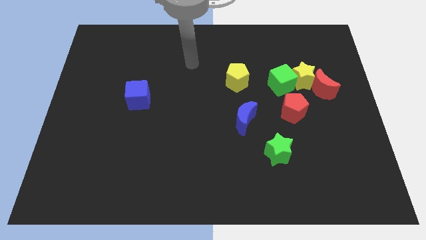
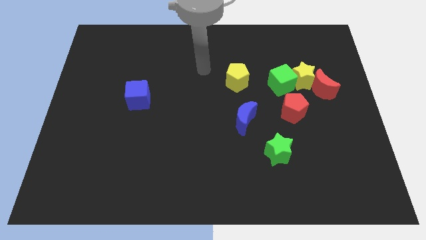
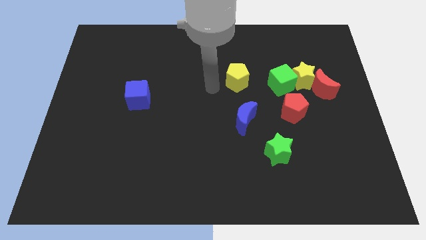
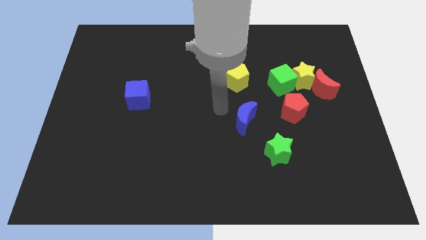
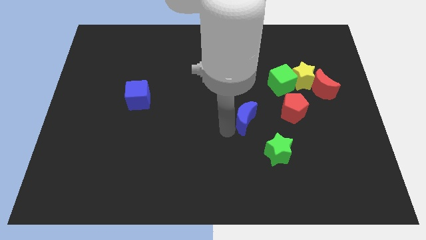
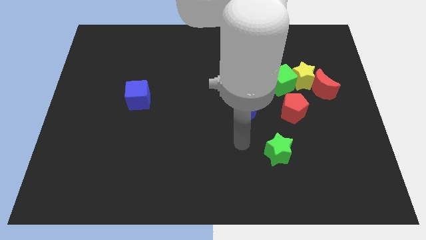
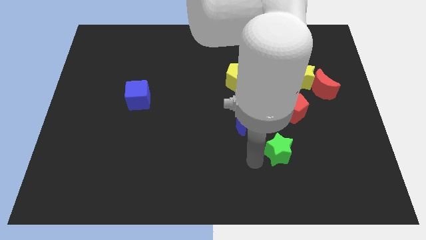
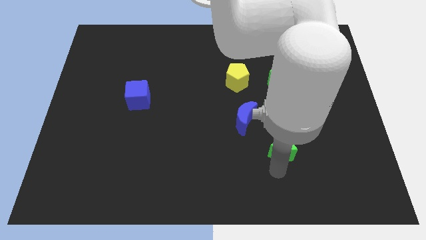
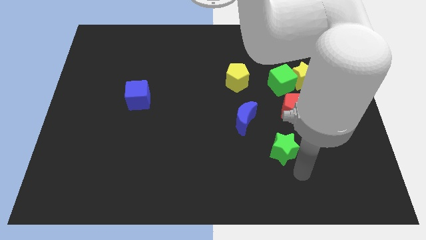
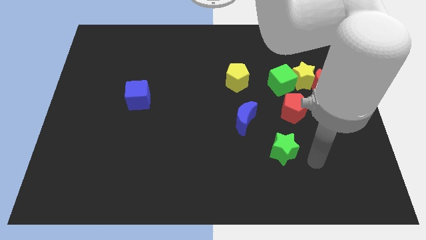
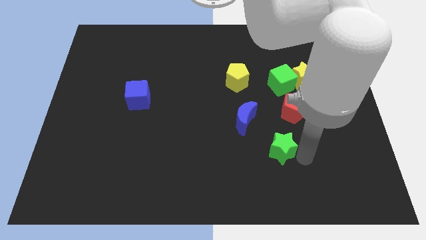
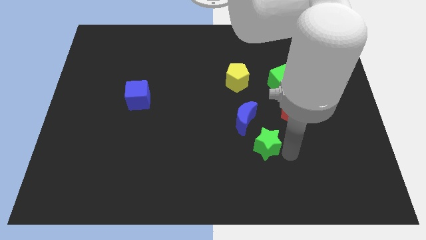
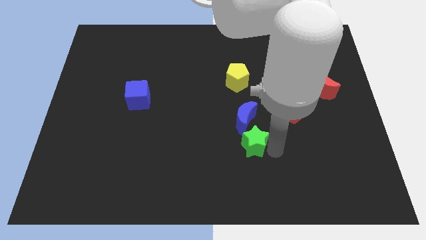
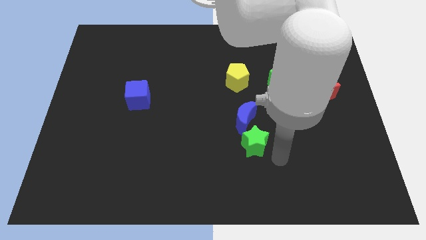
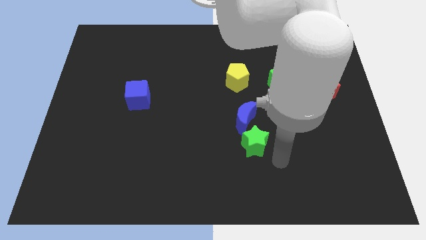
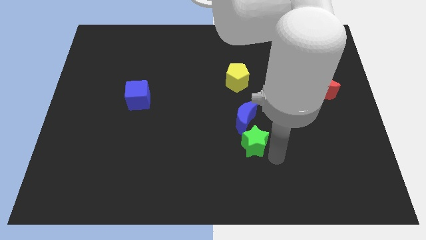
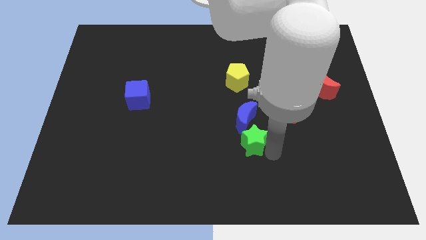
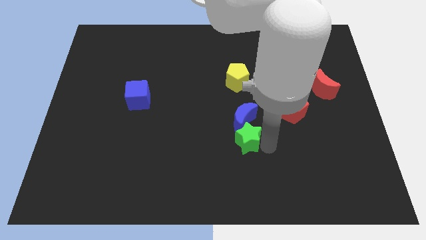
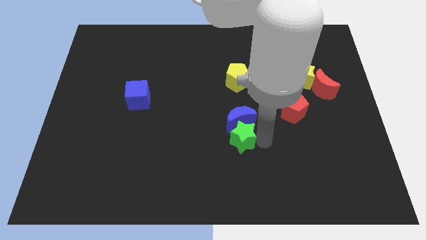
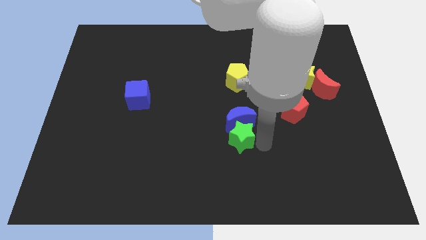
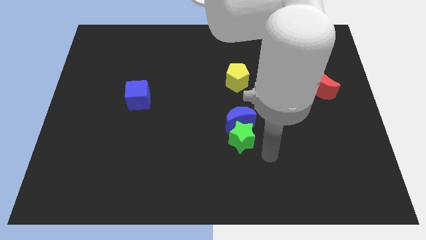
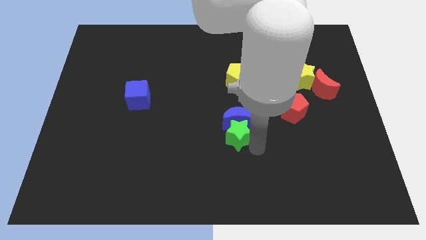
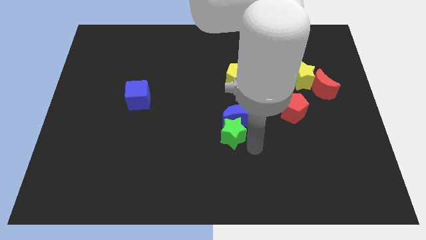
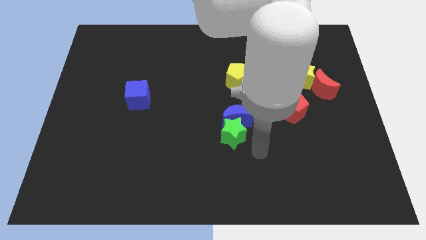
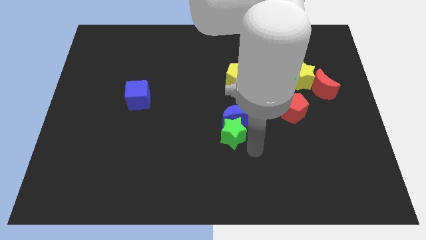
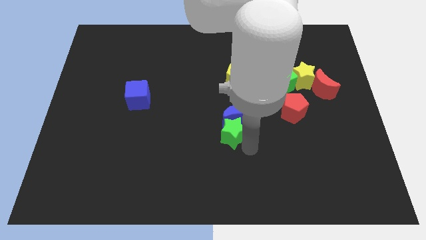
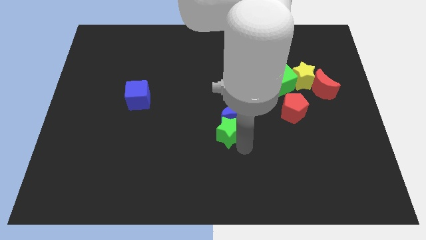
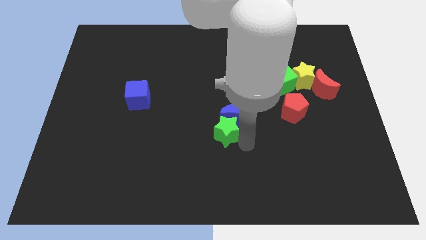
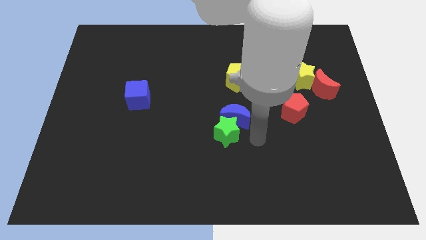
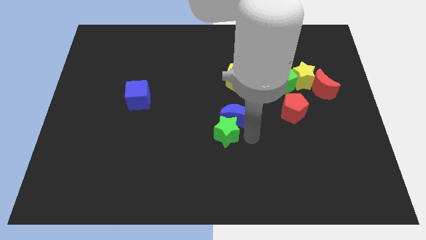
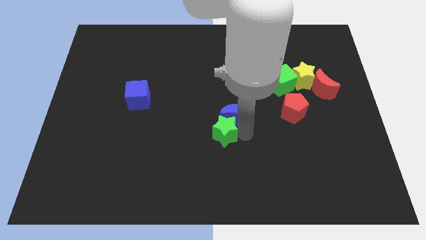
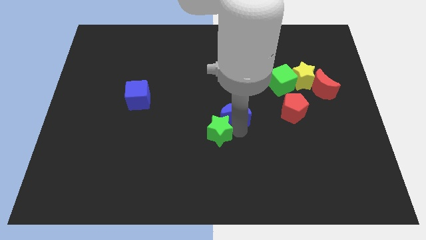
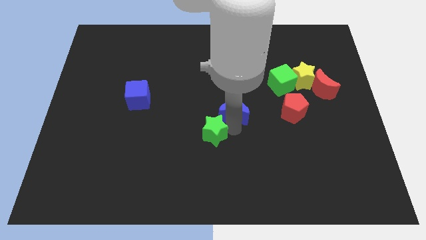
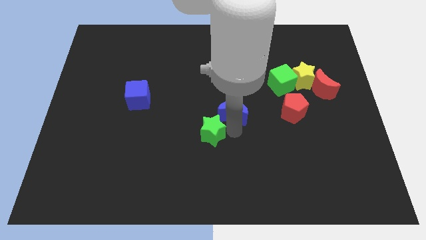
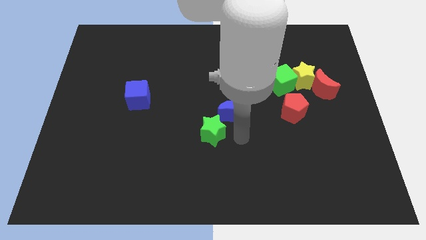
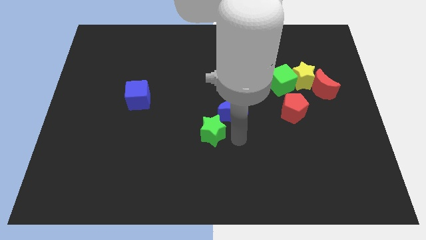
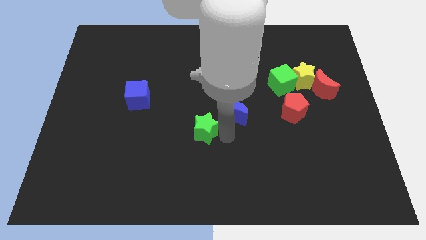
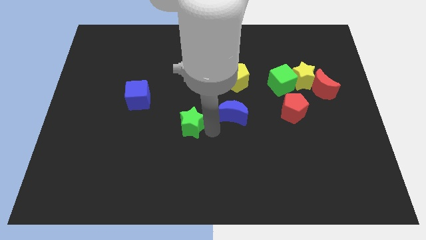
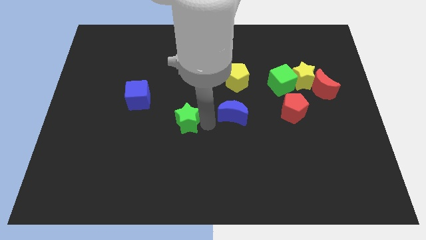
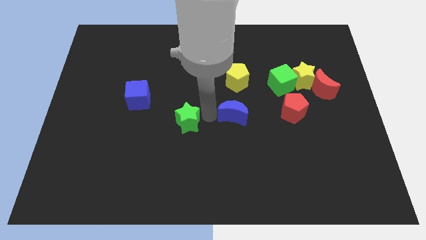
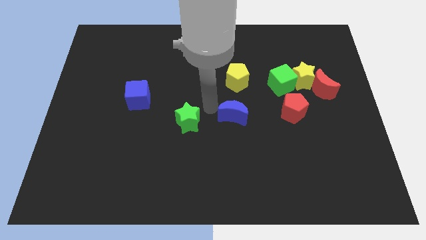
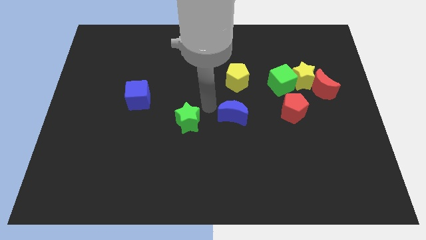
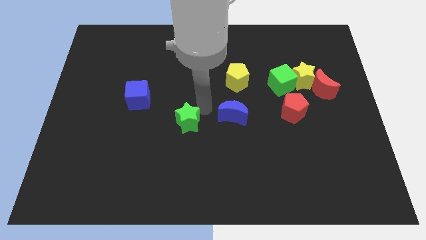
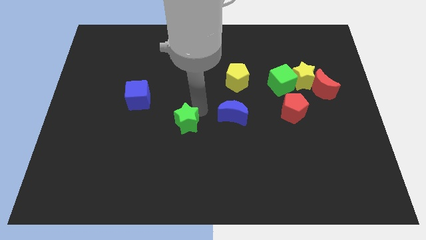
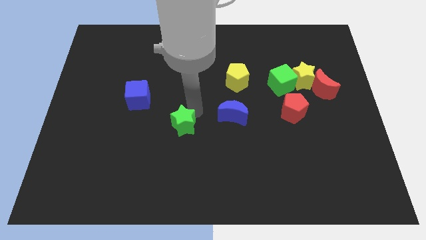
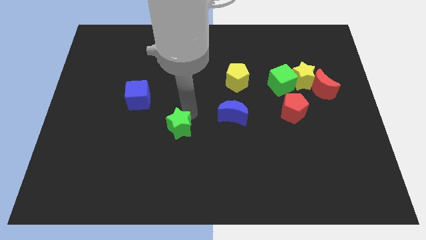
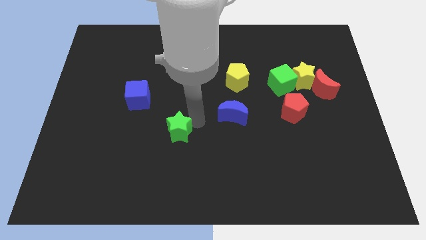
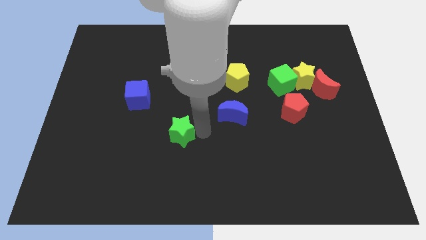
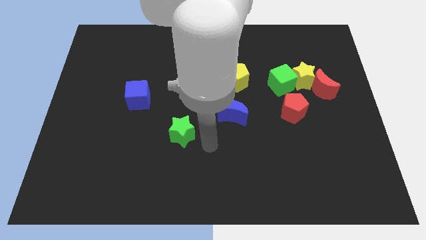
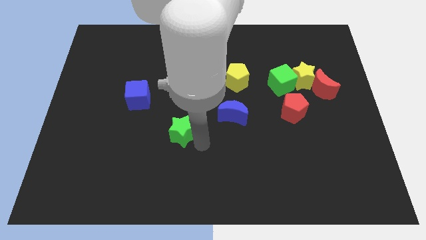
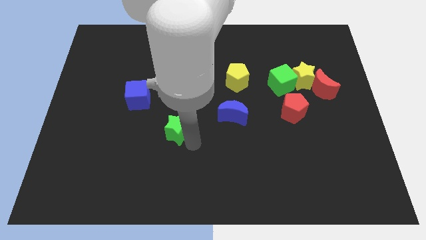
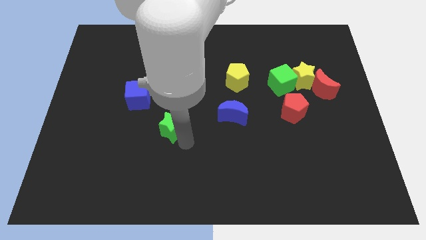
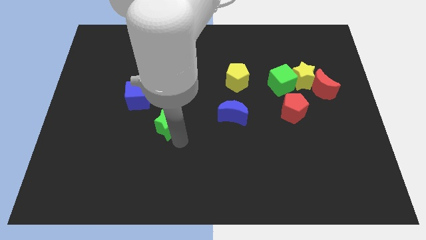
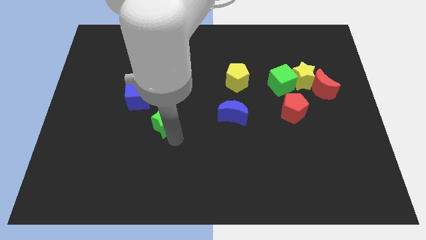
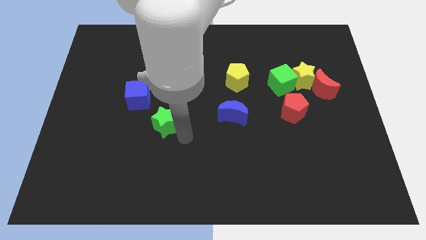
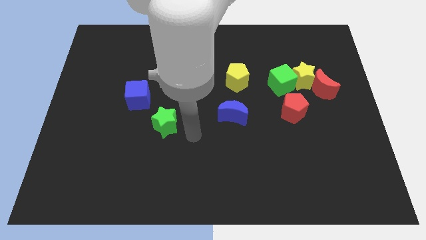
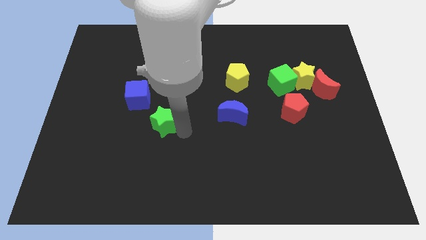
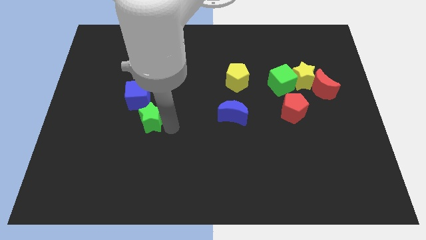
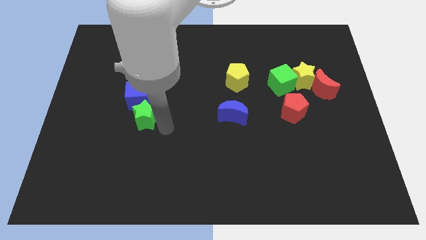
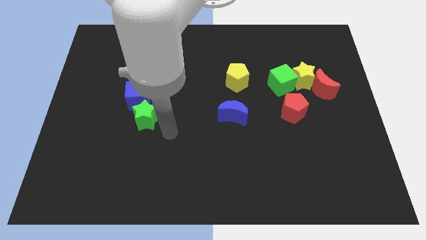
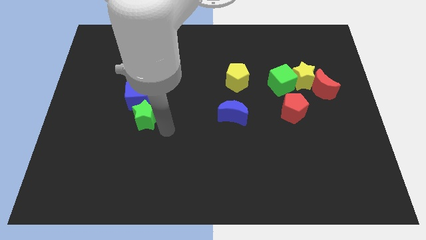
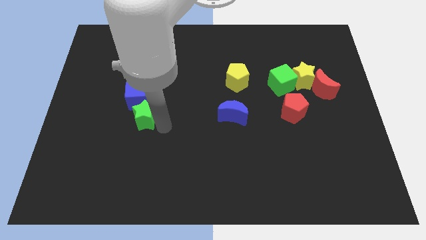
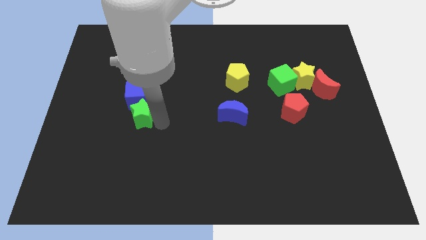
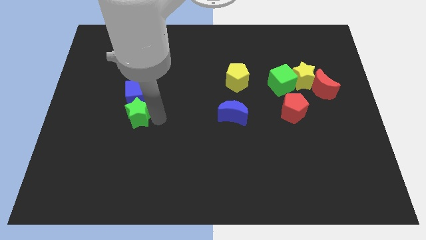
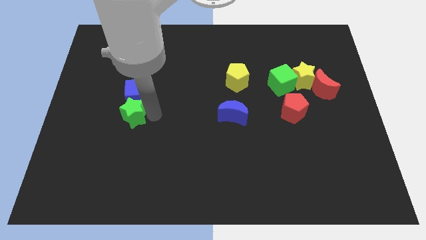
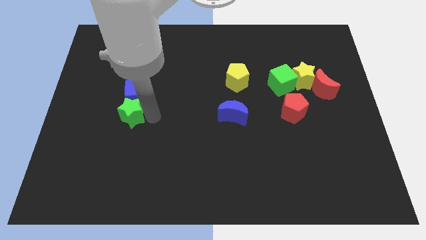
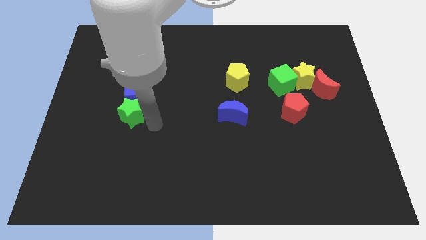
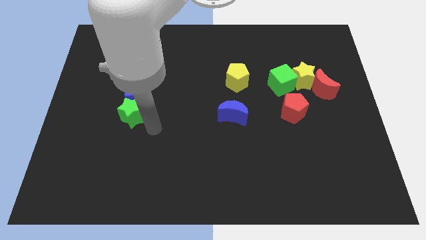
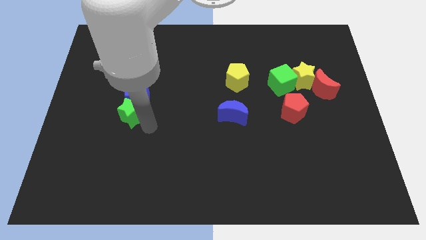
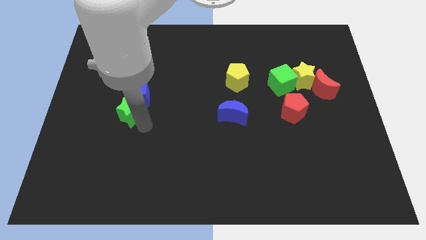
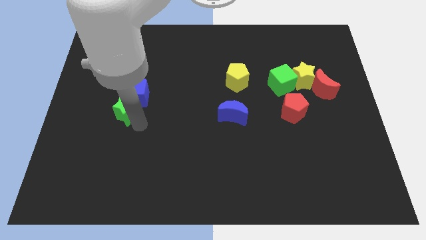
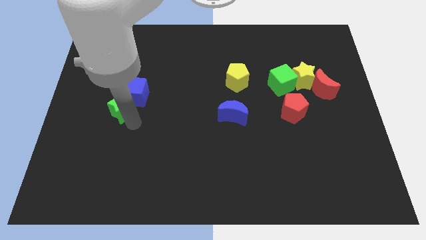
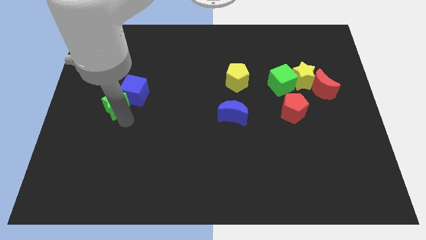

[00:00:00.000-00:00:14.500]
slide the green star to the left side of the blue cube

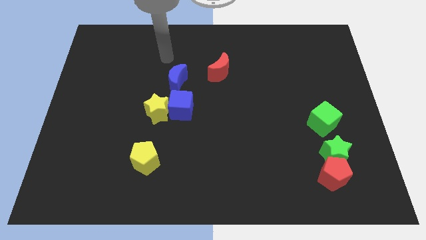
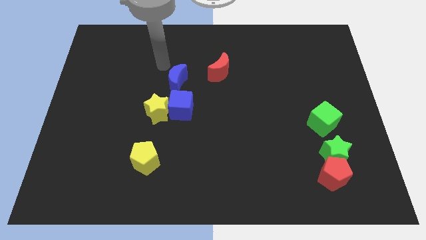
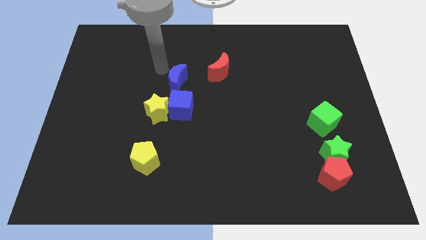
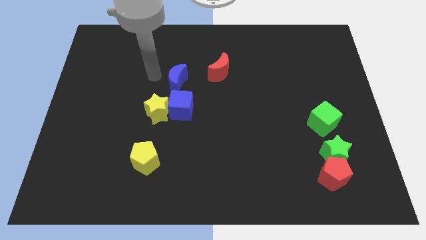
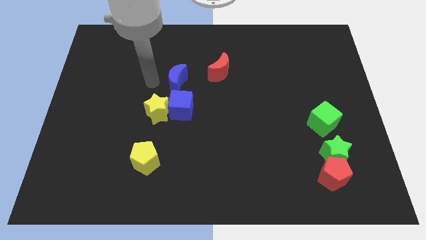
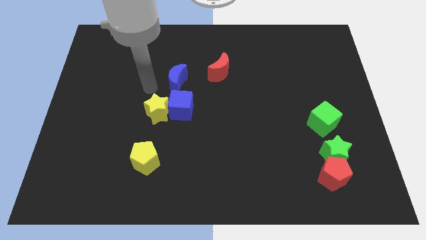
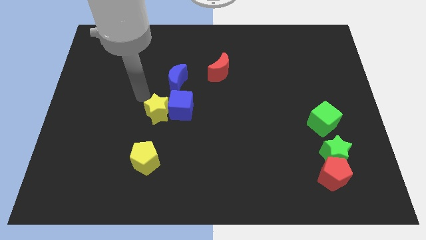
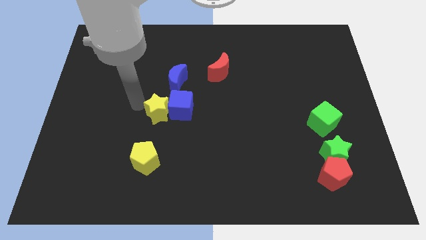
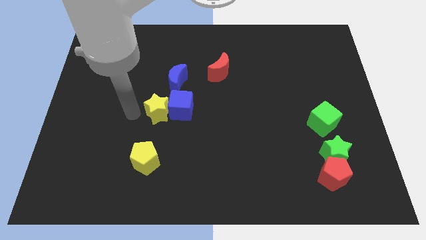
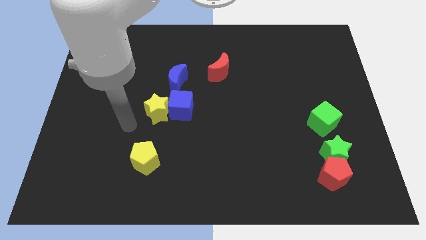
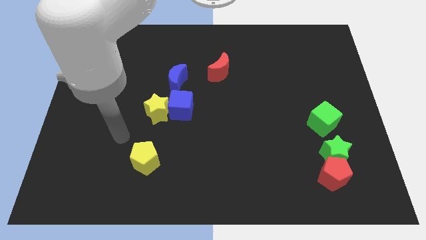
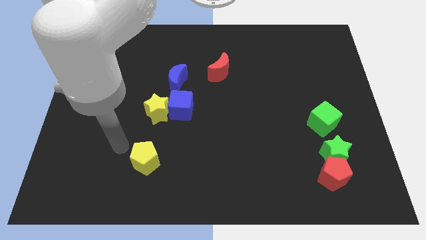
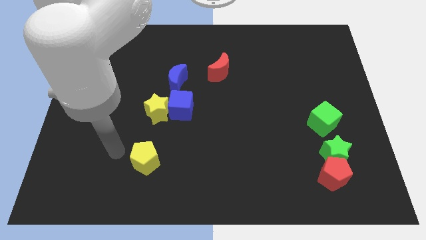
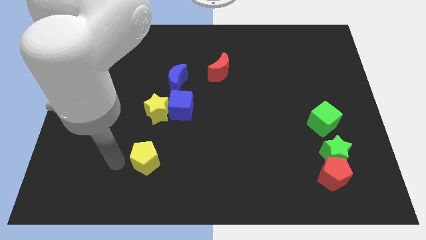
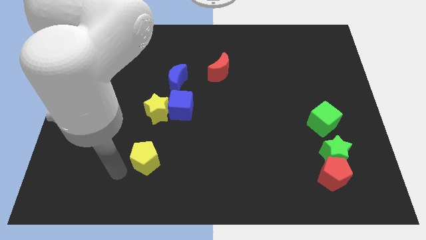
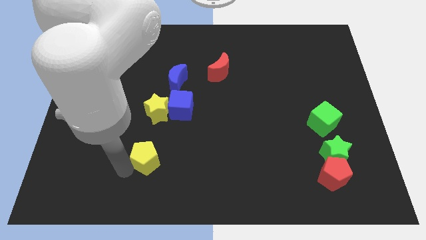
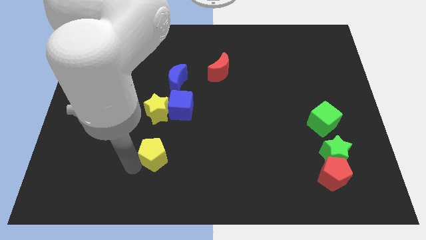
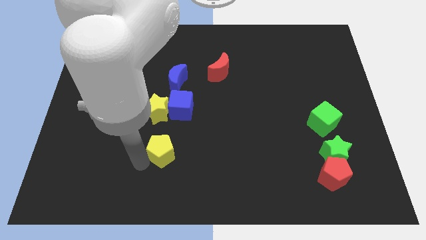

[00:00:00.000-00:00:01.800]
push the yellow pentagon to the bottom side of the blue cube
